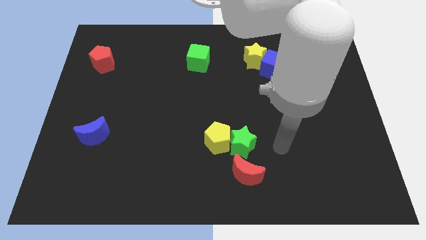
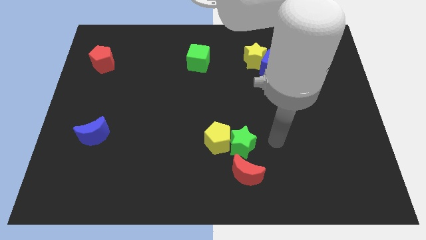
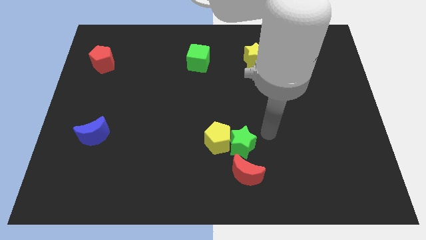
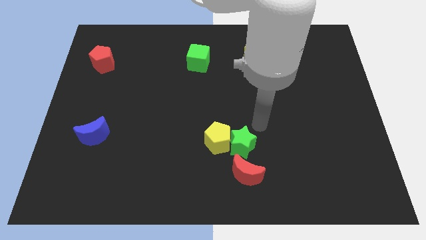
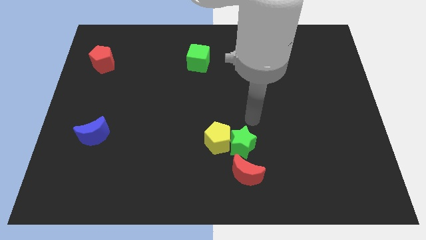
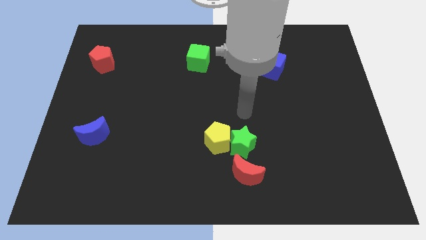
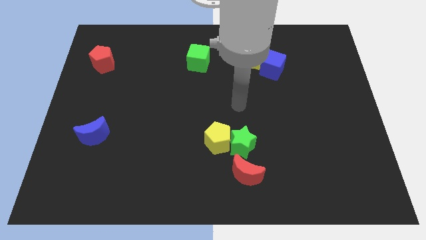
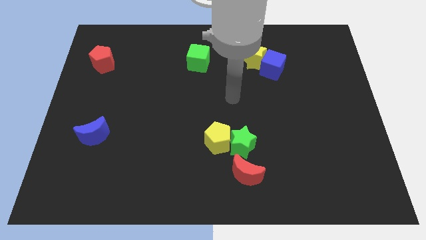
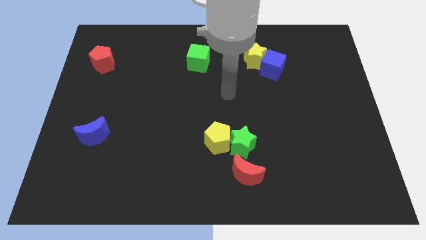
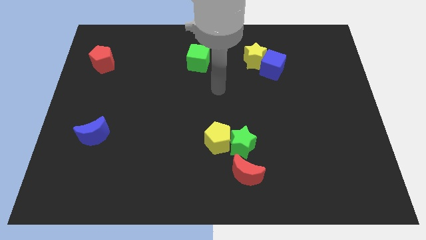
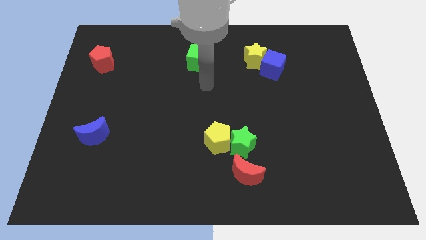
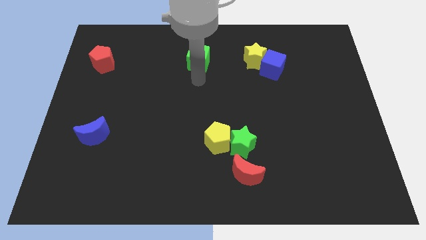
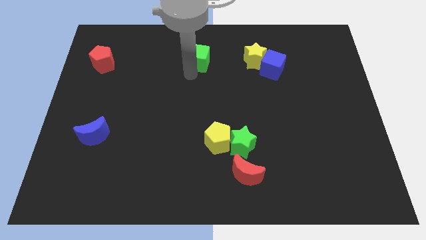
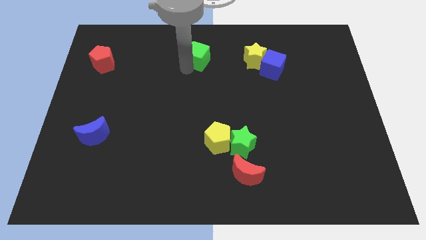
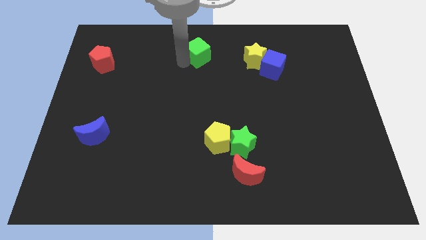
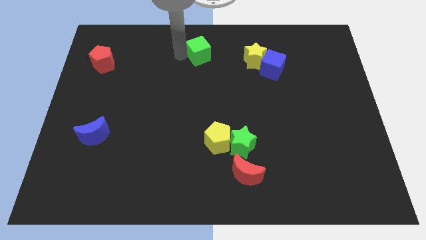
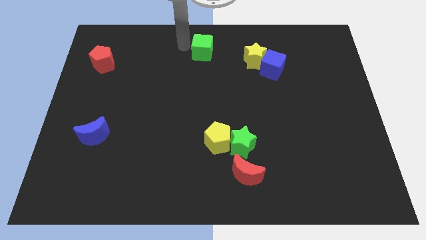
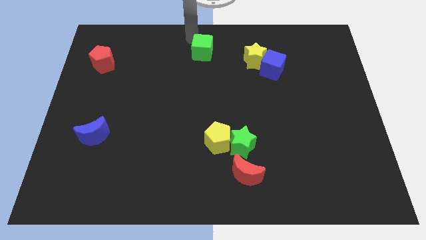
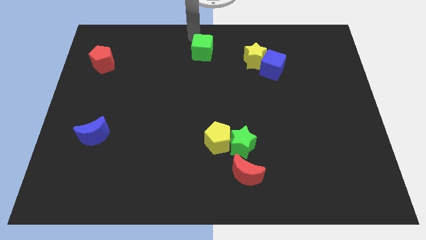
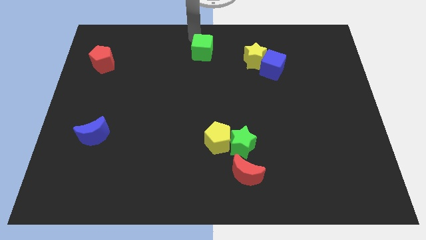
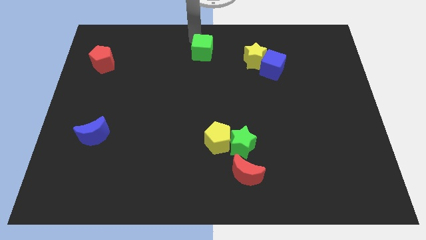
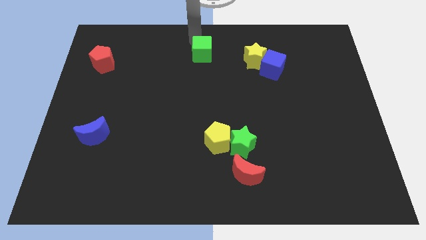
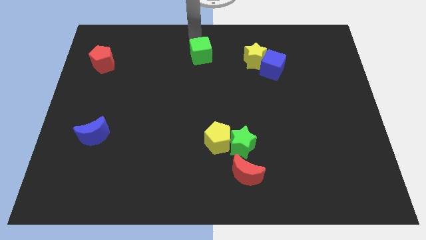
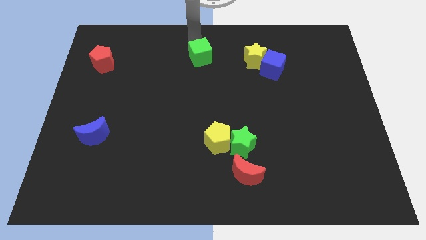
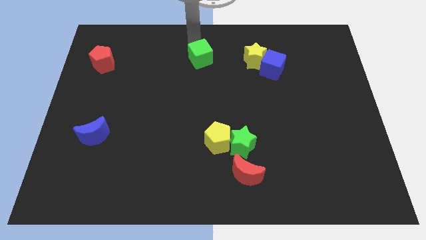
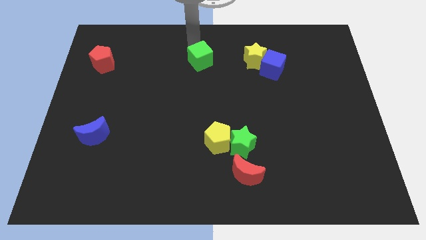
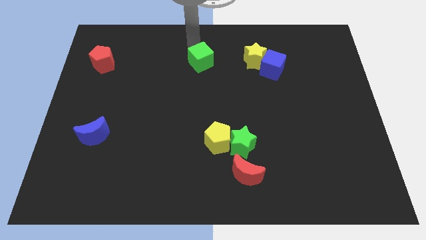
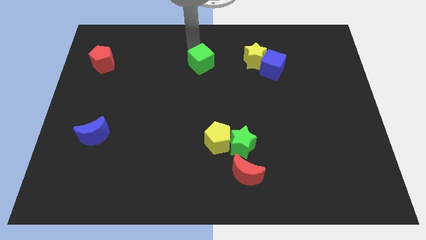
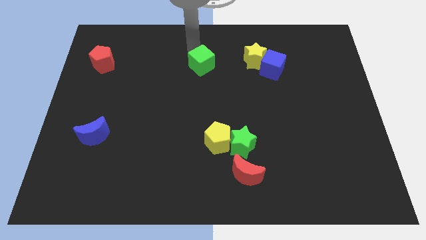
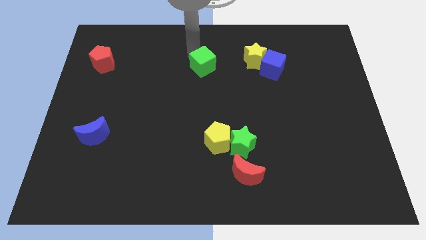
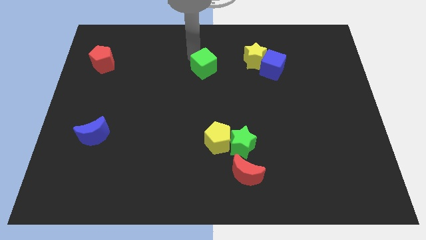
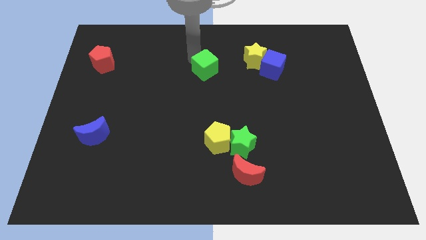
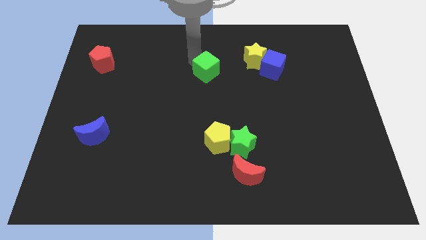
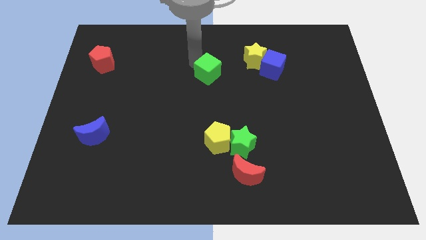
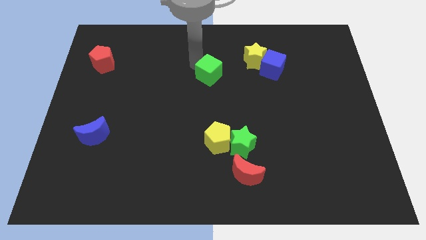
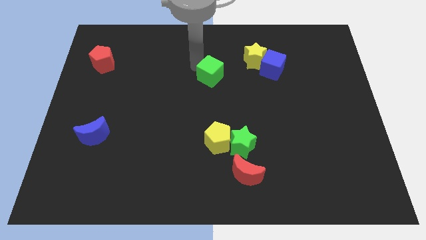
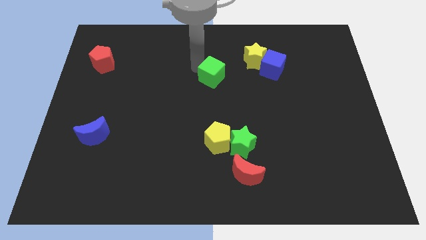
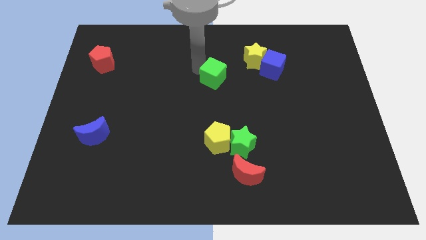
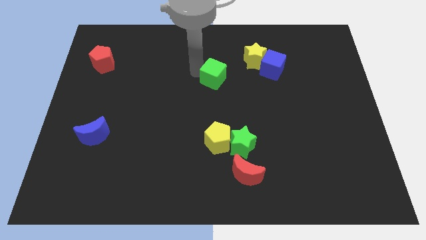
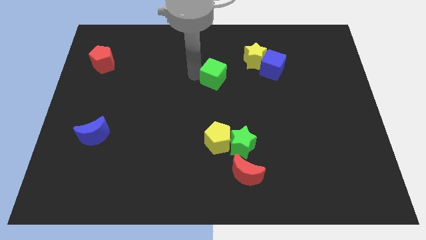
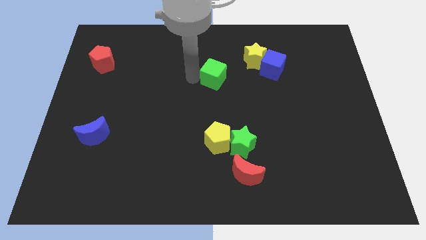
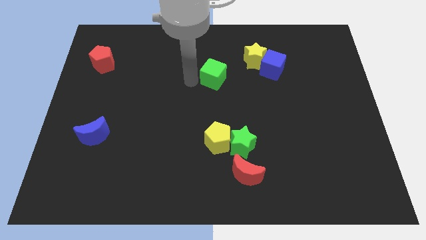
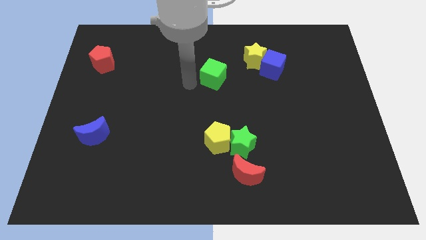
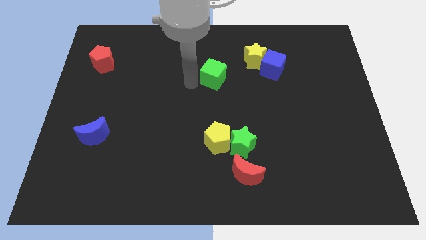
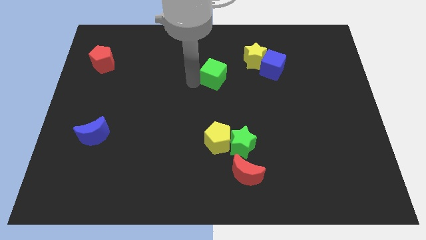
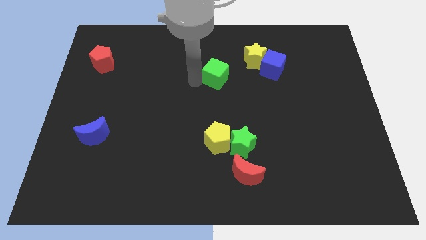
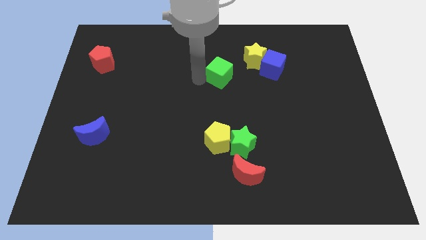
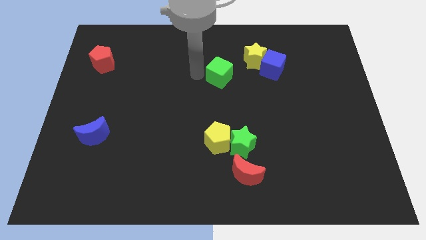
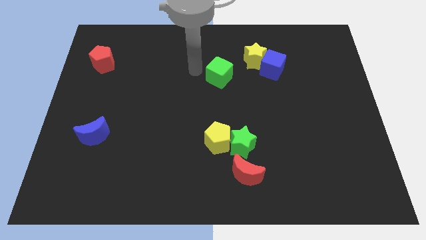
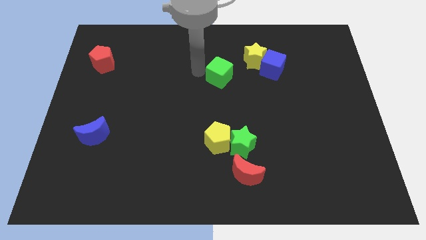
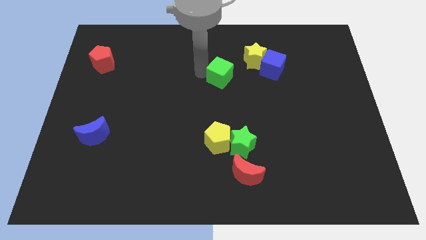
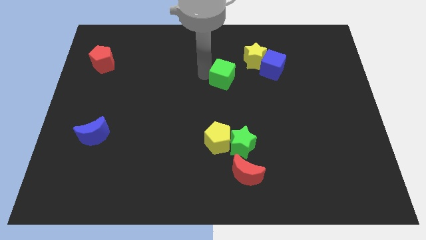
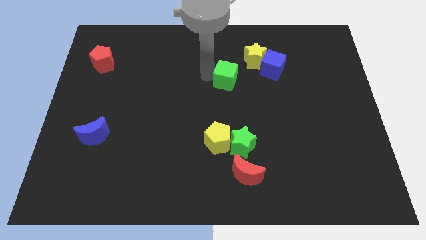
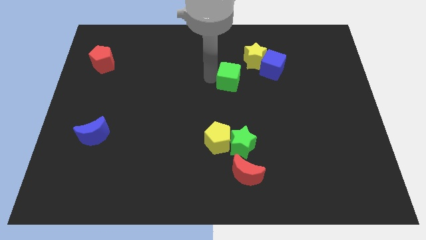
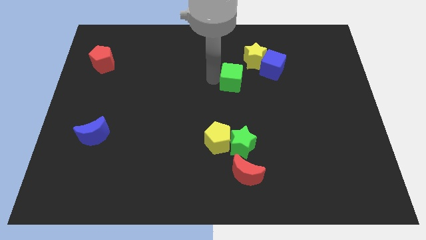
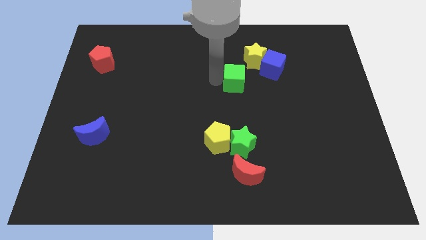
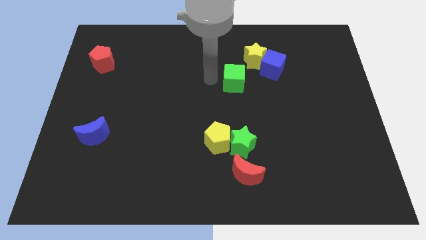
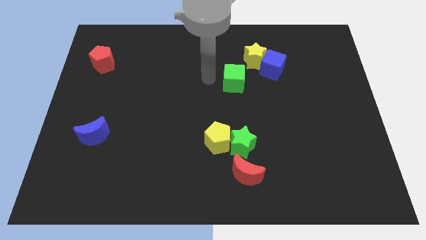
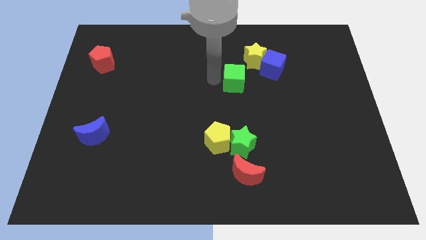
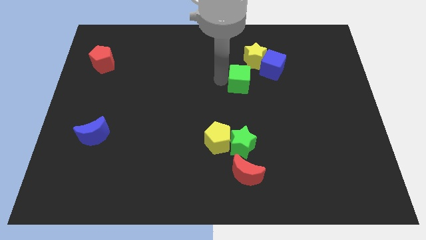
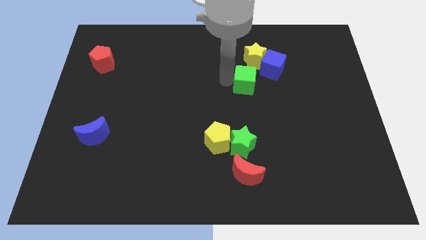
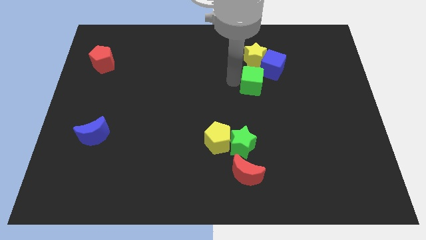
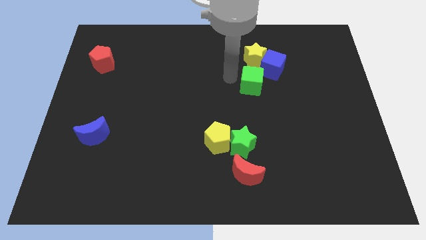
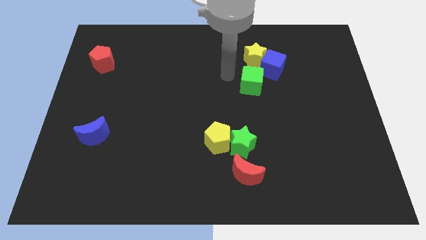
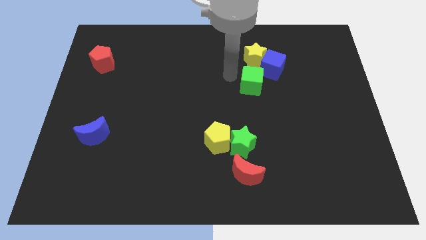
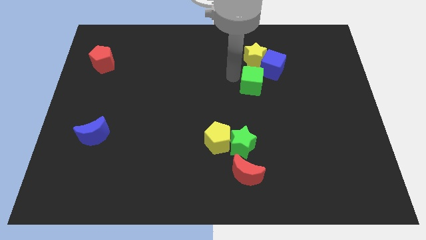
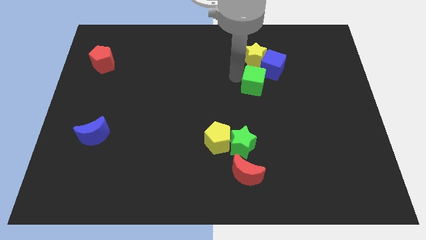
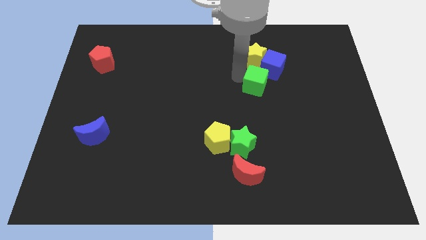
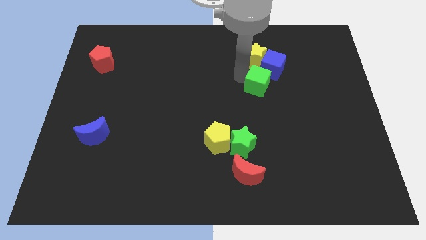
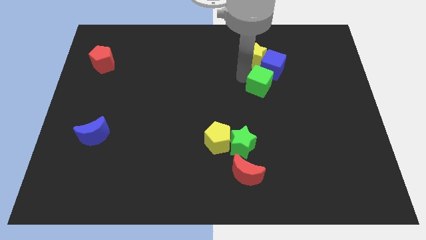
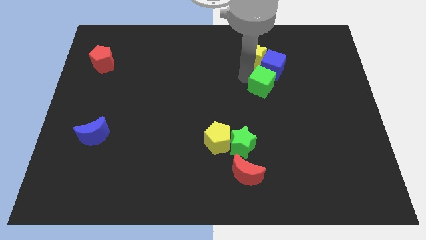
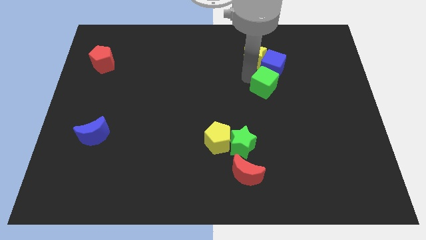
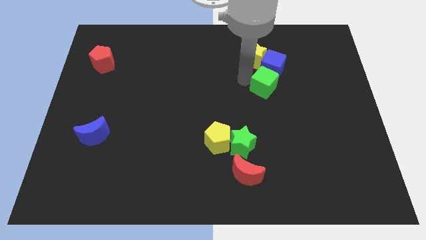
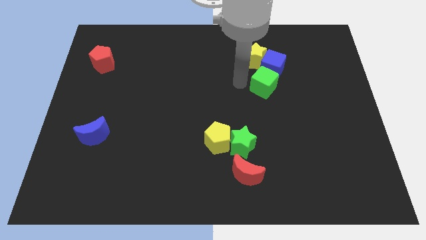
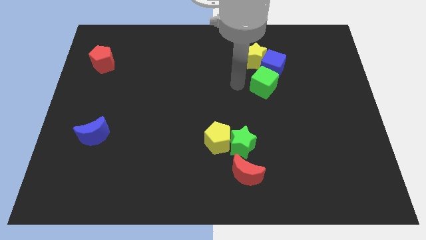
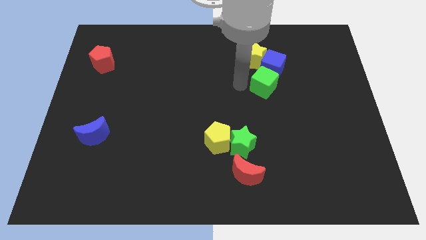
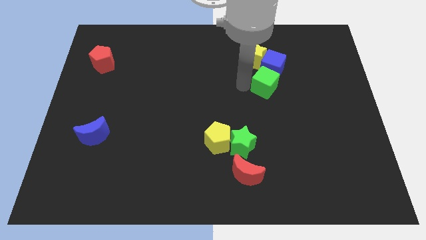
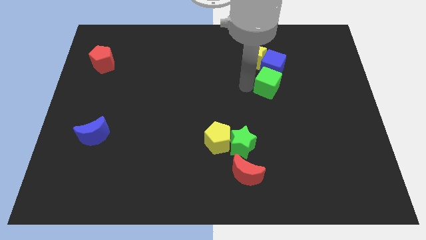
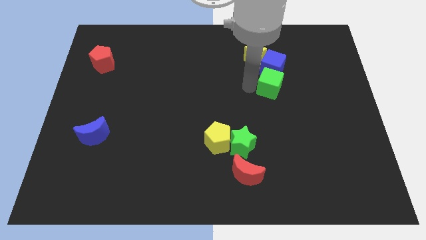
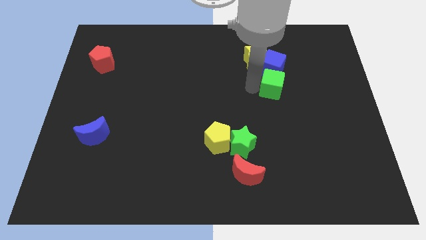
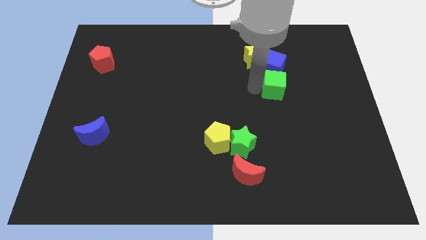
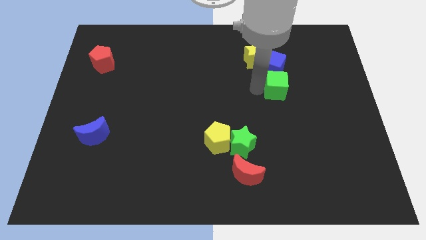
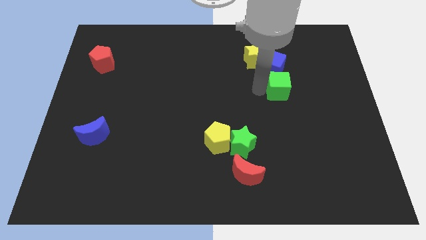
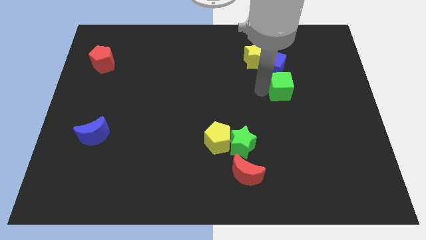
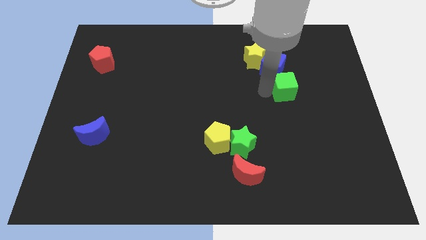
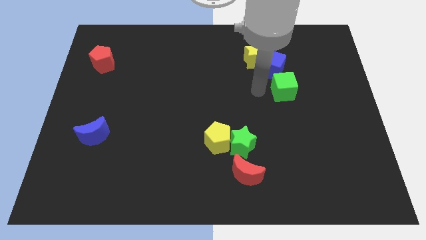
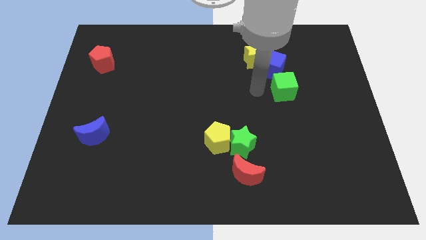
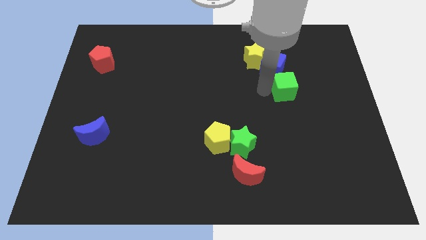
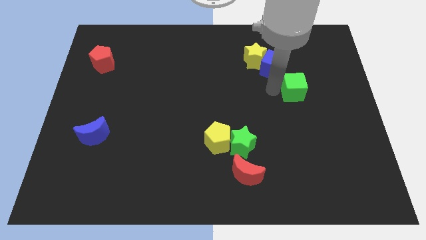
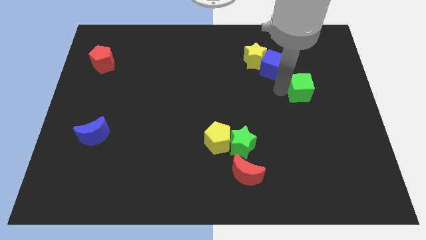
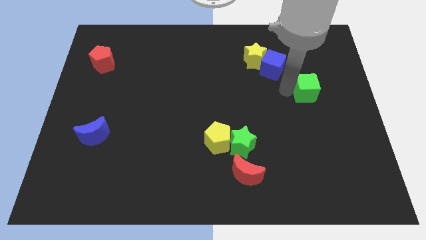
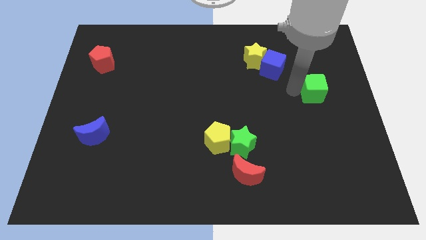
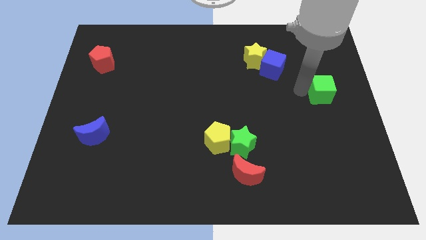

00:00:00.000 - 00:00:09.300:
put the green cube to the right side
